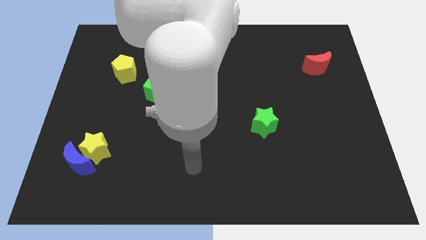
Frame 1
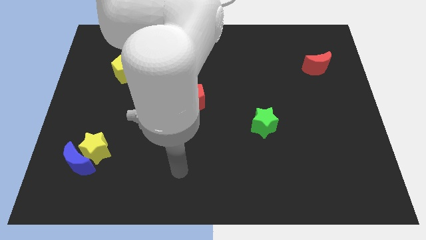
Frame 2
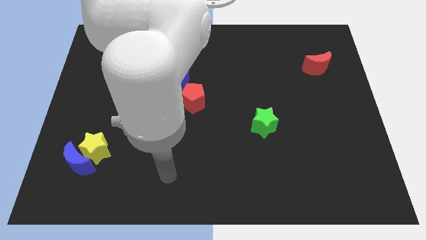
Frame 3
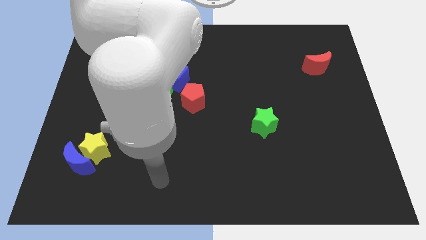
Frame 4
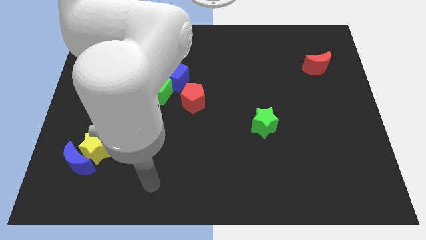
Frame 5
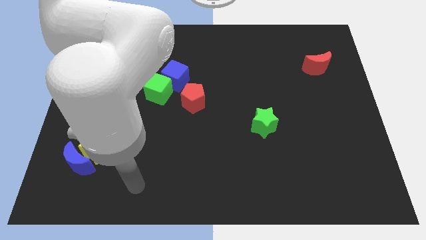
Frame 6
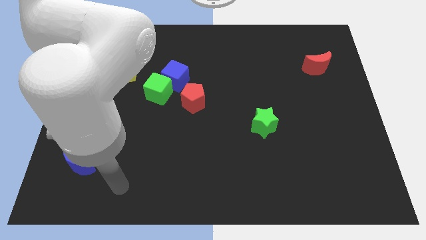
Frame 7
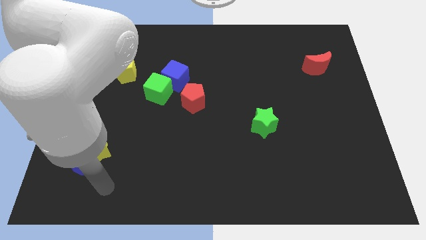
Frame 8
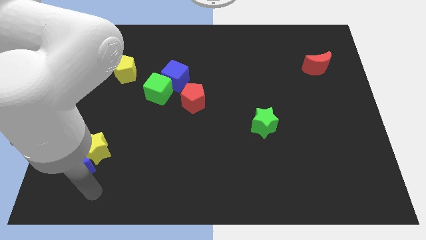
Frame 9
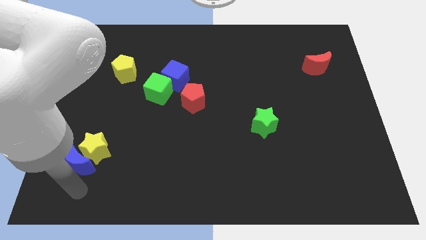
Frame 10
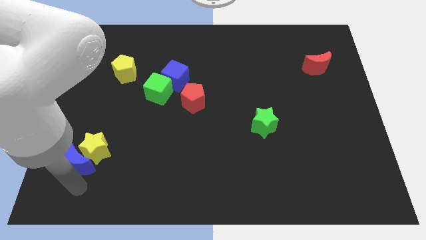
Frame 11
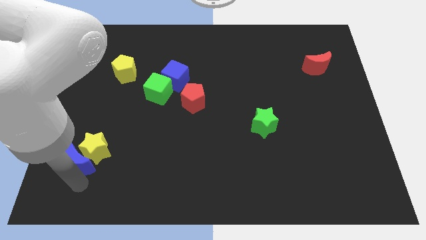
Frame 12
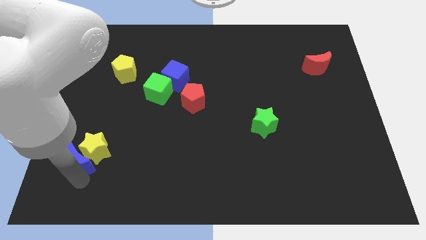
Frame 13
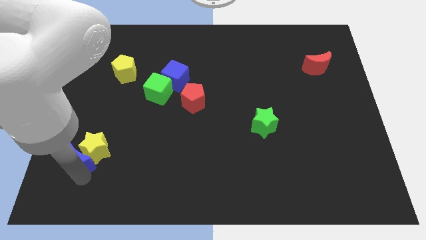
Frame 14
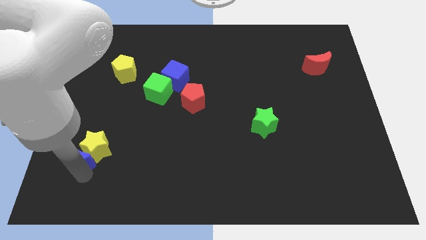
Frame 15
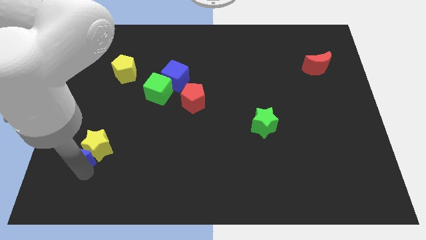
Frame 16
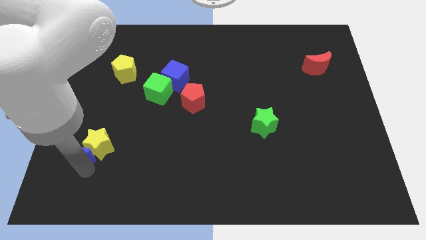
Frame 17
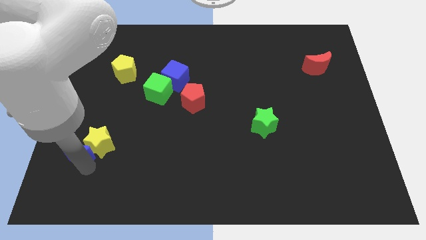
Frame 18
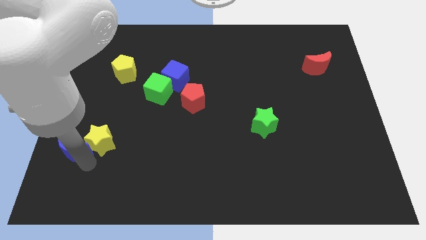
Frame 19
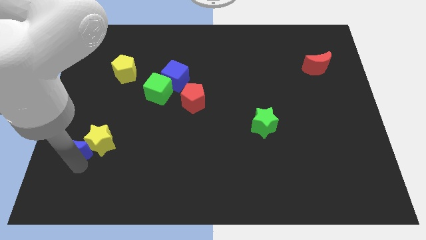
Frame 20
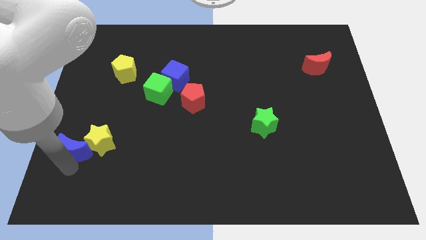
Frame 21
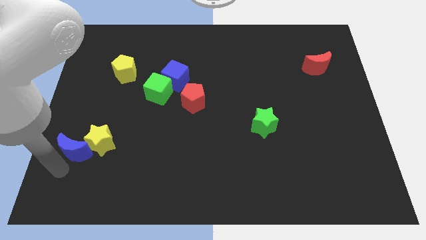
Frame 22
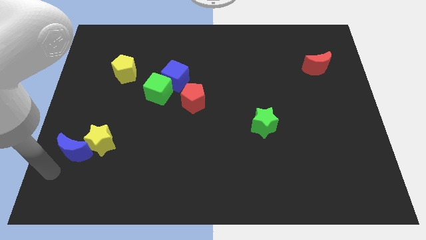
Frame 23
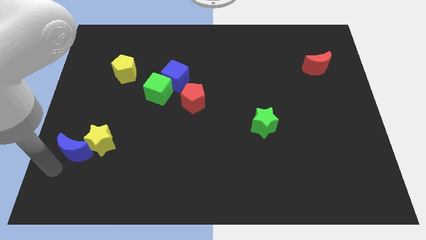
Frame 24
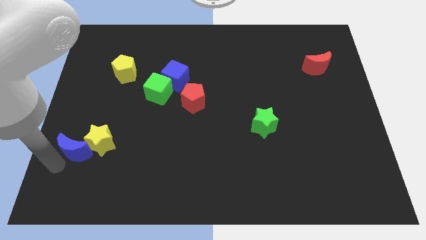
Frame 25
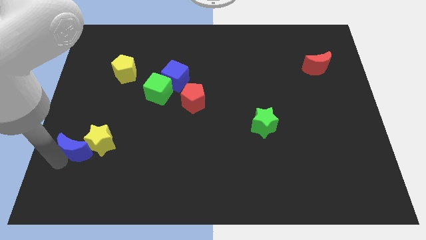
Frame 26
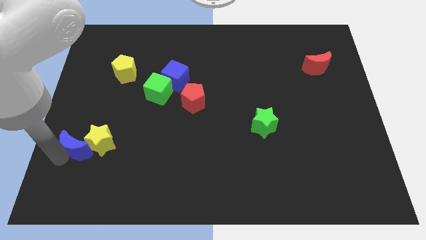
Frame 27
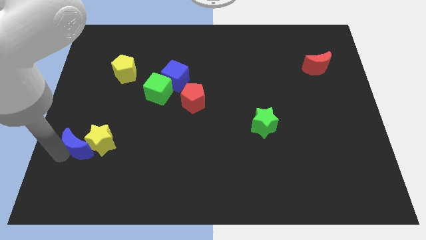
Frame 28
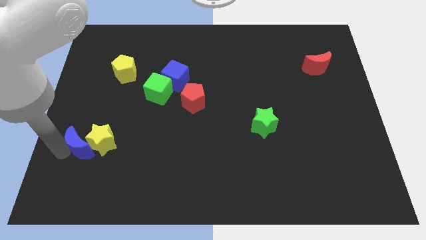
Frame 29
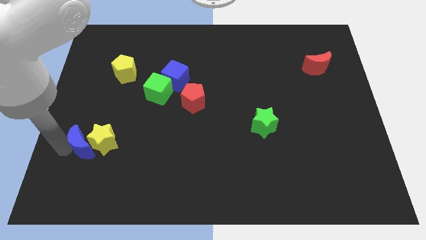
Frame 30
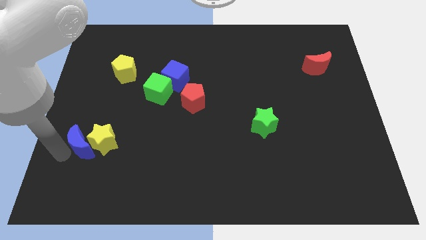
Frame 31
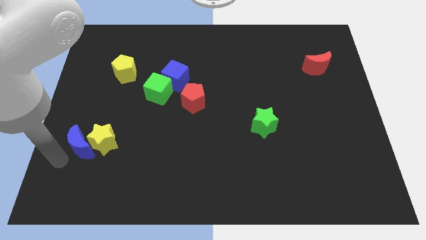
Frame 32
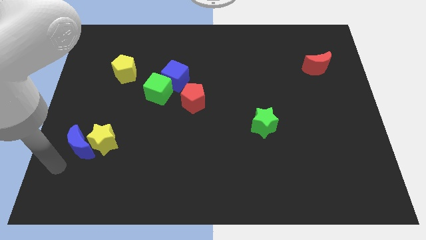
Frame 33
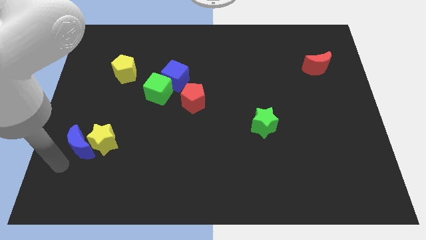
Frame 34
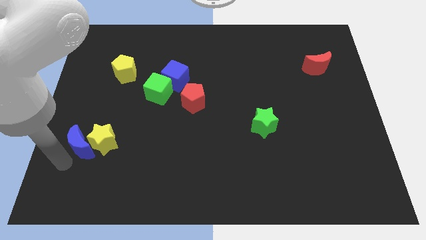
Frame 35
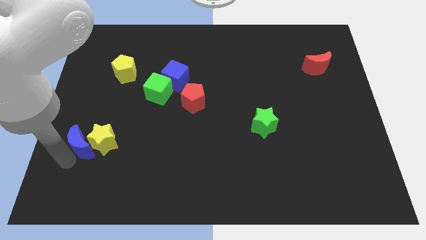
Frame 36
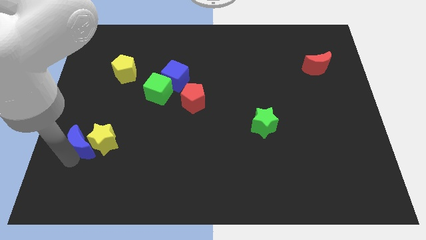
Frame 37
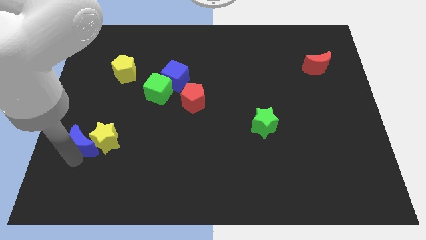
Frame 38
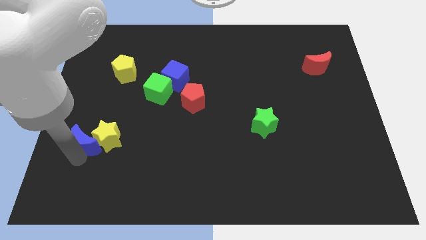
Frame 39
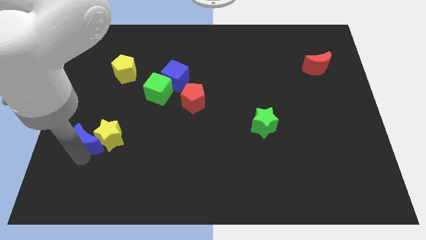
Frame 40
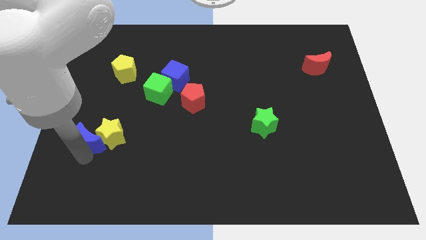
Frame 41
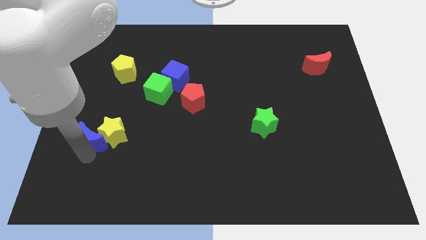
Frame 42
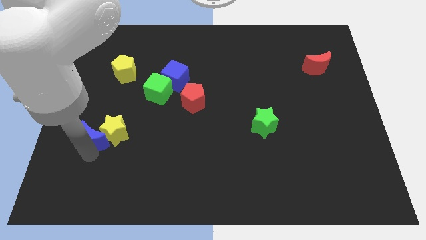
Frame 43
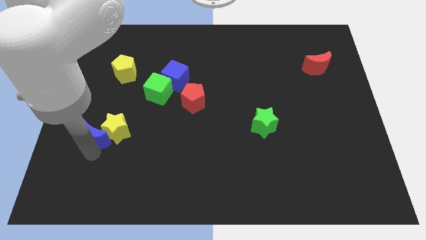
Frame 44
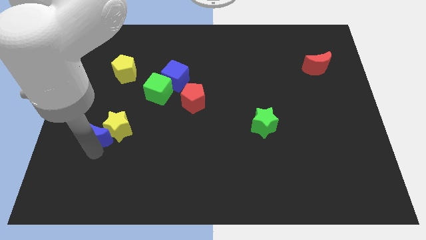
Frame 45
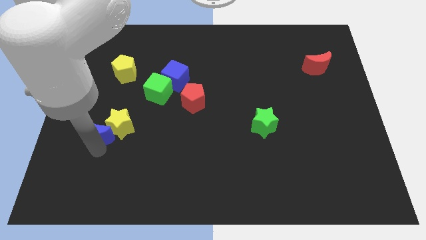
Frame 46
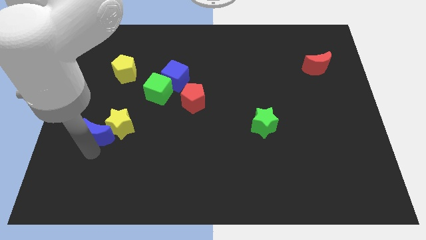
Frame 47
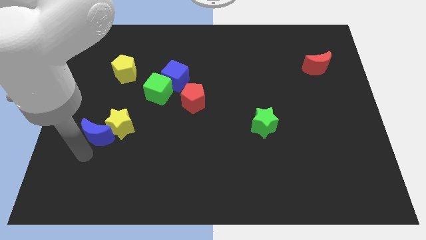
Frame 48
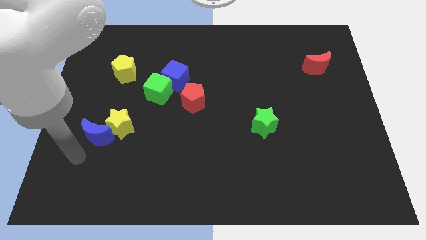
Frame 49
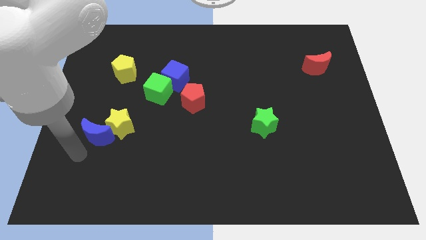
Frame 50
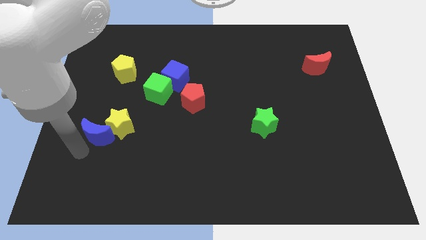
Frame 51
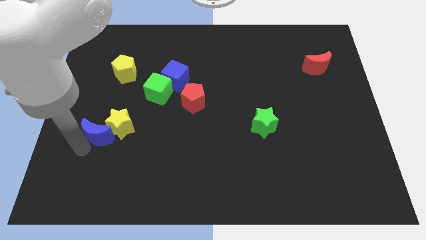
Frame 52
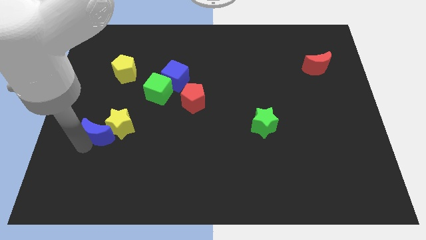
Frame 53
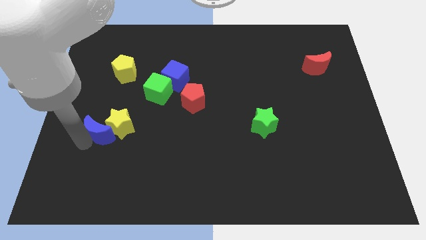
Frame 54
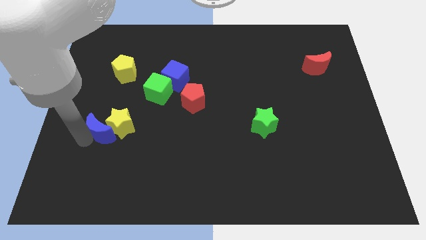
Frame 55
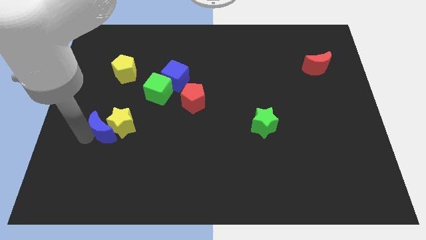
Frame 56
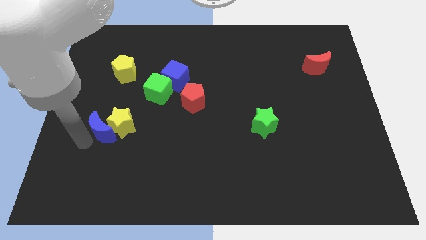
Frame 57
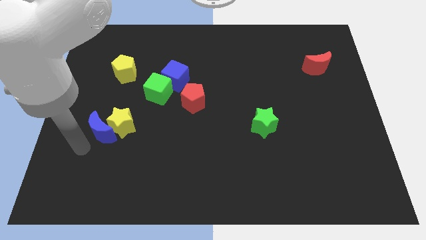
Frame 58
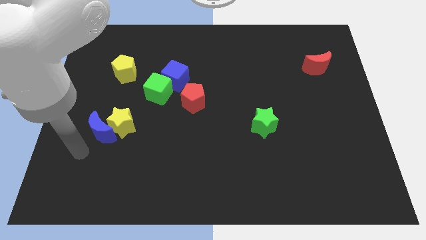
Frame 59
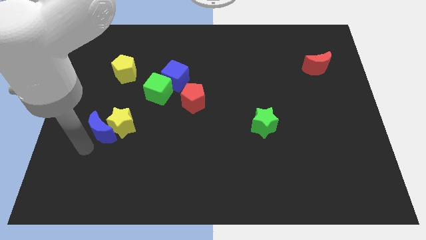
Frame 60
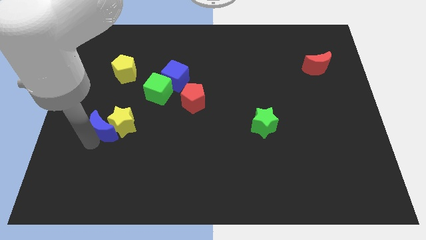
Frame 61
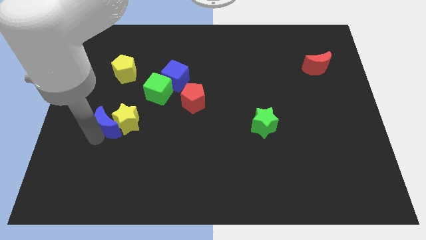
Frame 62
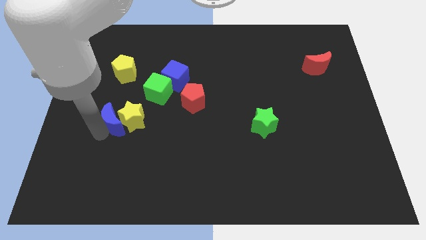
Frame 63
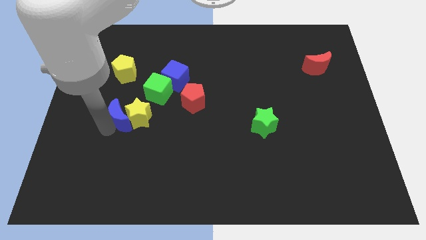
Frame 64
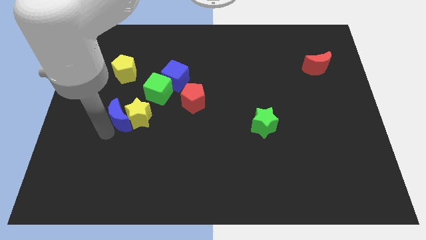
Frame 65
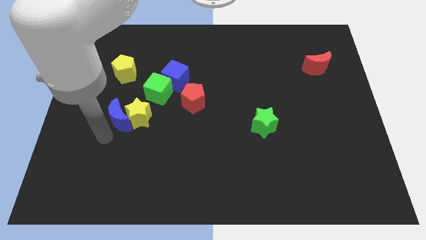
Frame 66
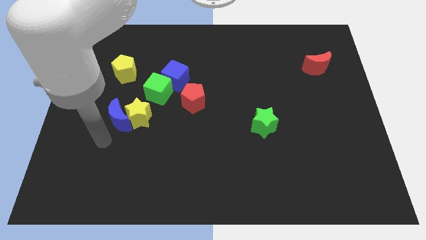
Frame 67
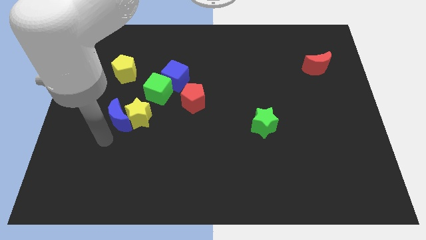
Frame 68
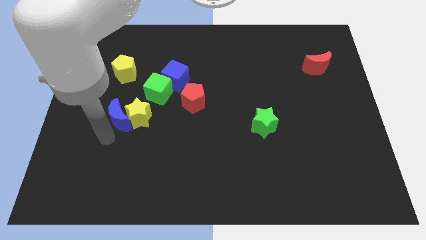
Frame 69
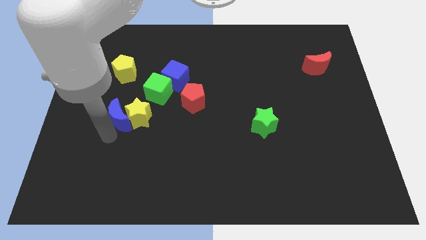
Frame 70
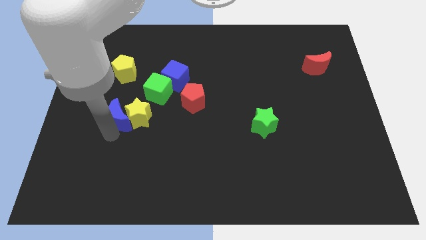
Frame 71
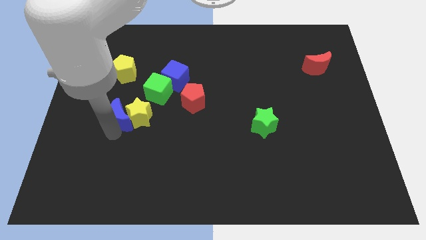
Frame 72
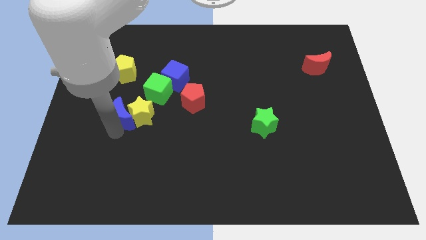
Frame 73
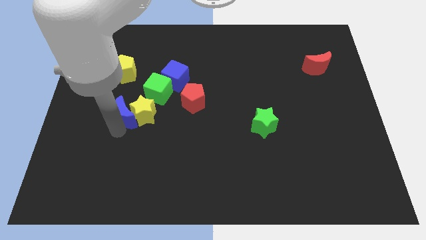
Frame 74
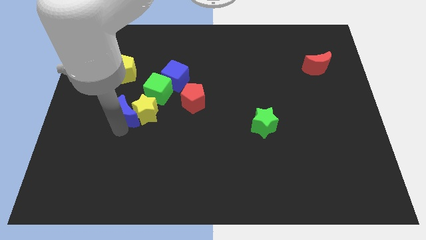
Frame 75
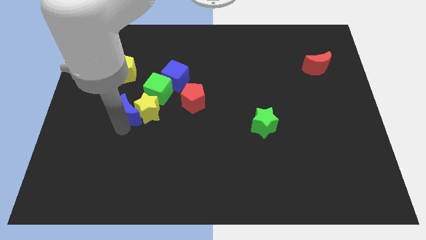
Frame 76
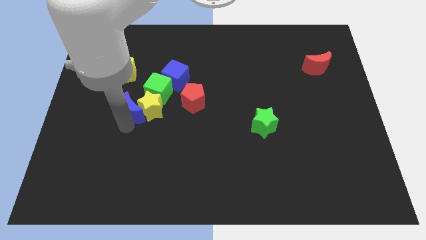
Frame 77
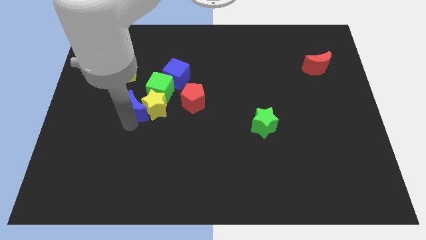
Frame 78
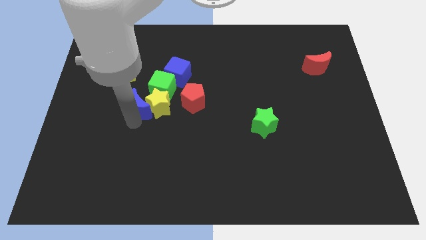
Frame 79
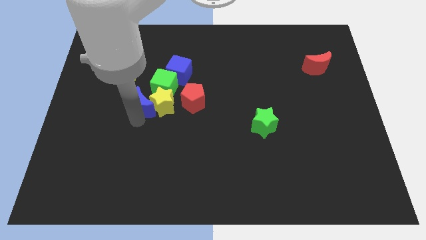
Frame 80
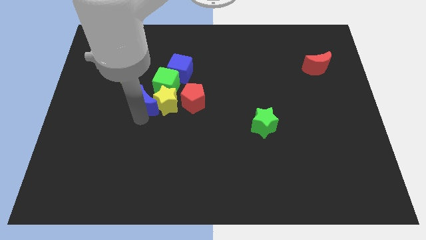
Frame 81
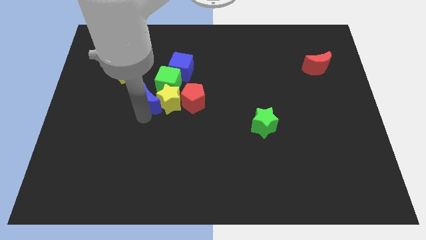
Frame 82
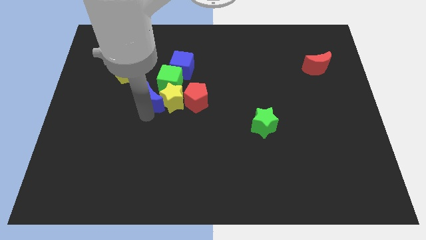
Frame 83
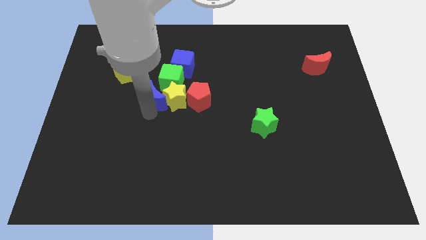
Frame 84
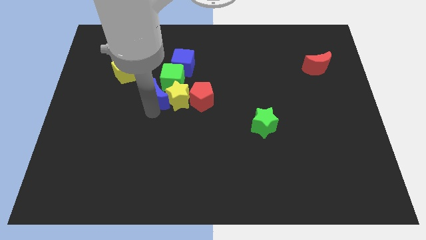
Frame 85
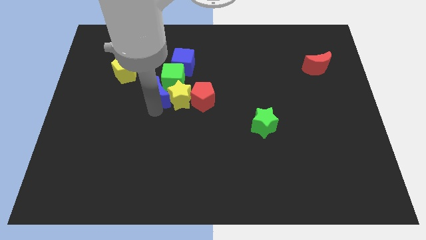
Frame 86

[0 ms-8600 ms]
push the blue moon close to the green cube
